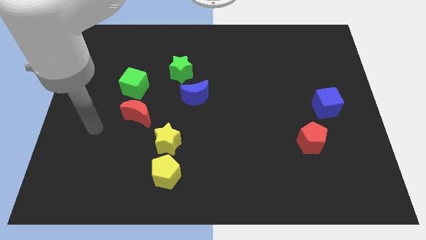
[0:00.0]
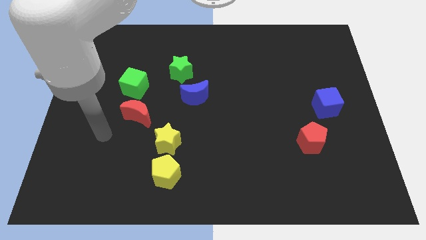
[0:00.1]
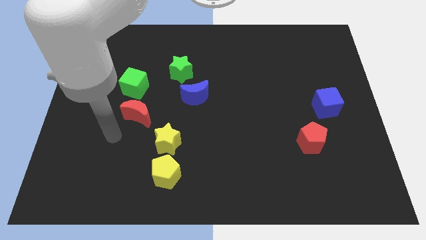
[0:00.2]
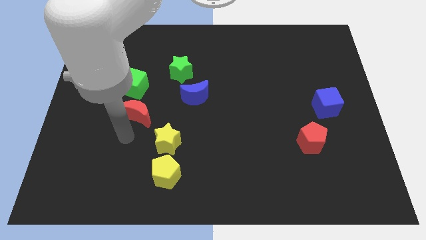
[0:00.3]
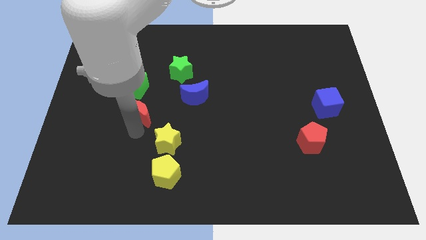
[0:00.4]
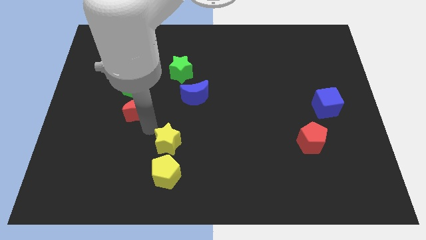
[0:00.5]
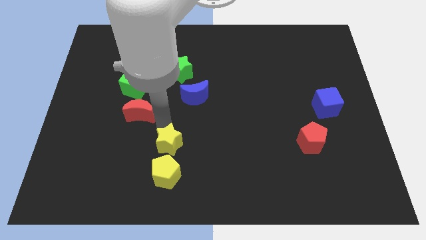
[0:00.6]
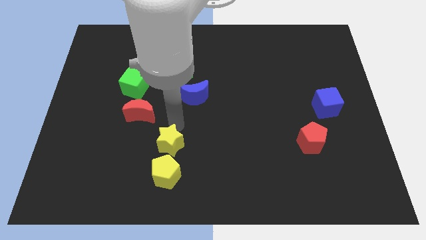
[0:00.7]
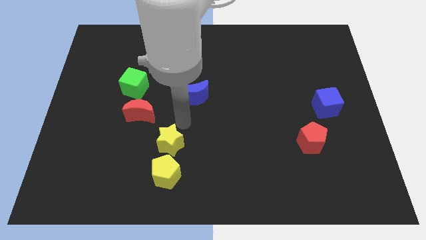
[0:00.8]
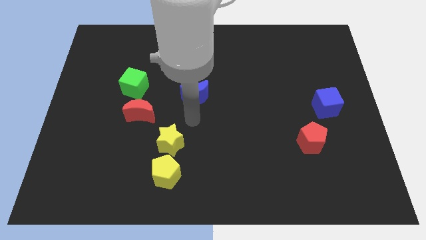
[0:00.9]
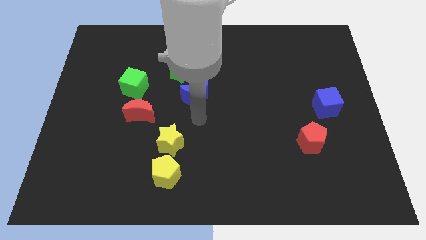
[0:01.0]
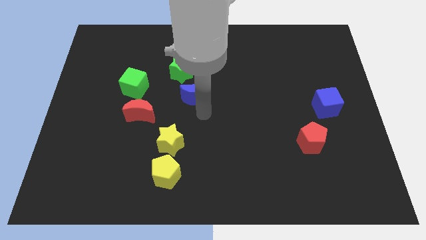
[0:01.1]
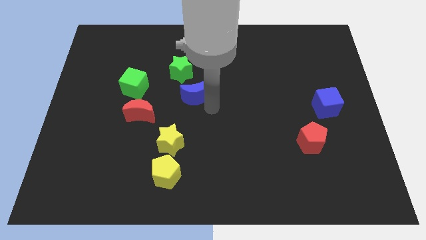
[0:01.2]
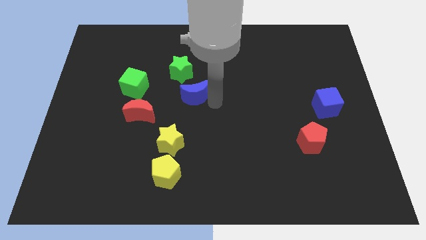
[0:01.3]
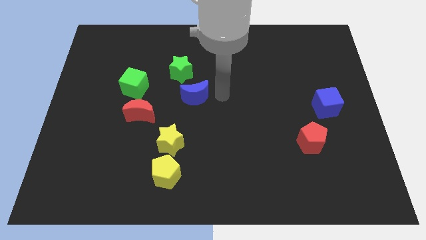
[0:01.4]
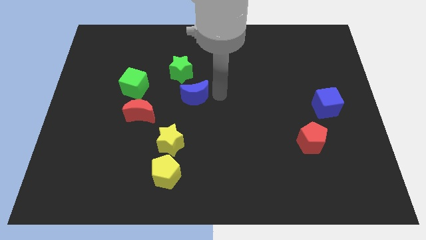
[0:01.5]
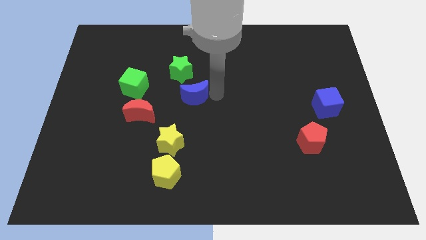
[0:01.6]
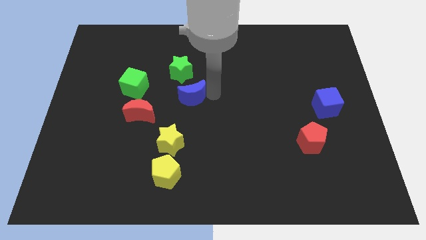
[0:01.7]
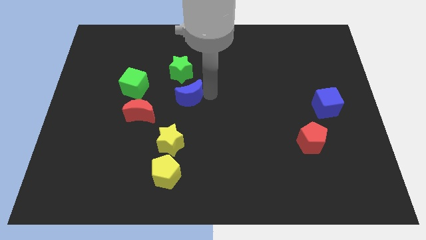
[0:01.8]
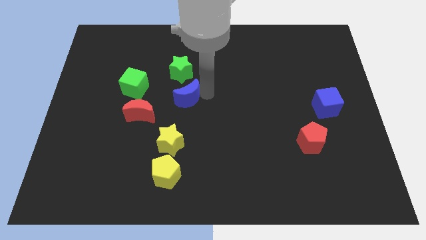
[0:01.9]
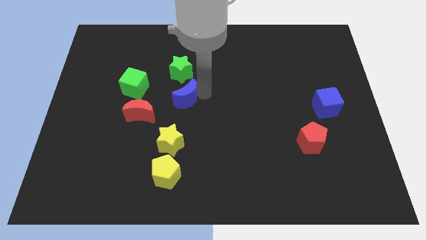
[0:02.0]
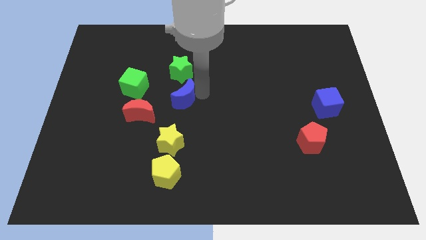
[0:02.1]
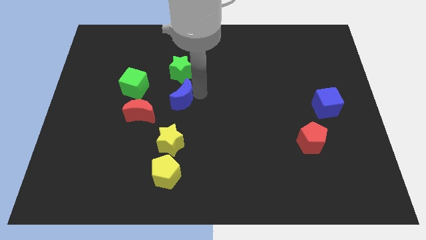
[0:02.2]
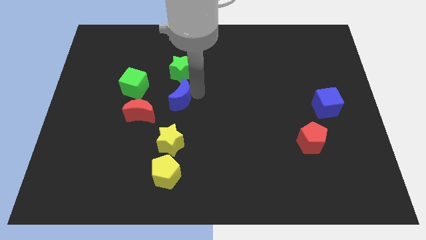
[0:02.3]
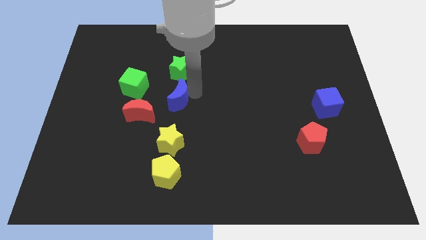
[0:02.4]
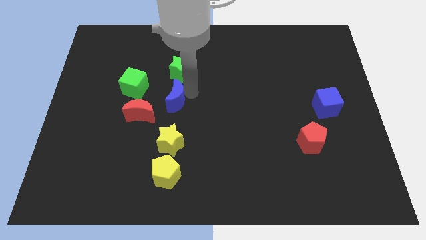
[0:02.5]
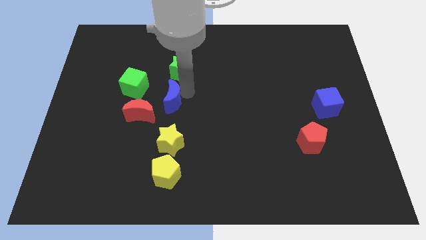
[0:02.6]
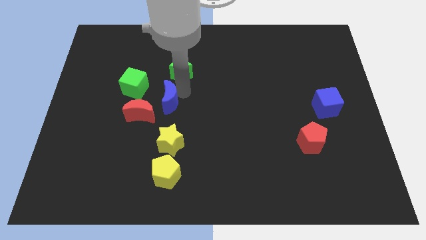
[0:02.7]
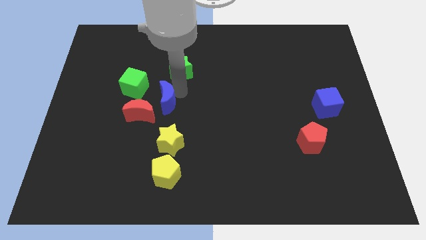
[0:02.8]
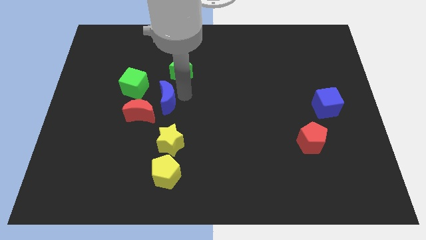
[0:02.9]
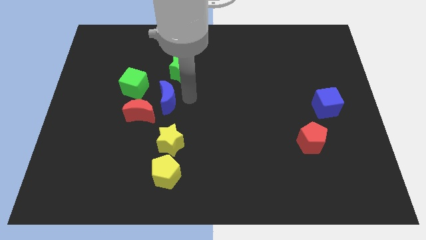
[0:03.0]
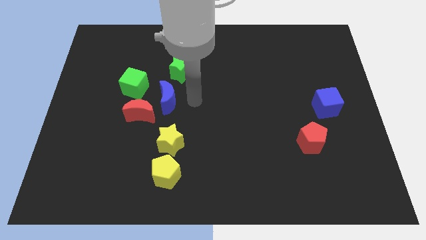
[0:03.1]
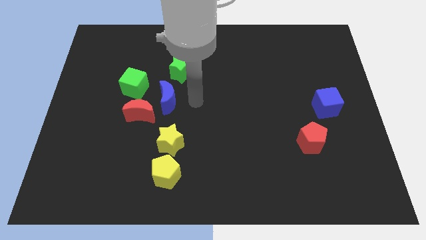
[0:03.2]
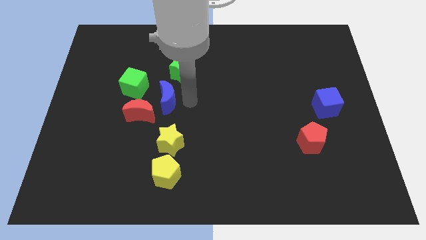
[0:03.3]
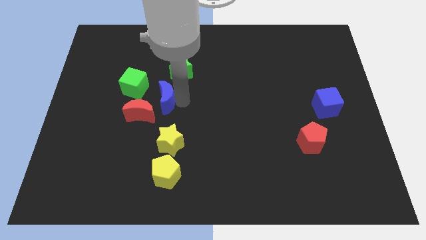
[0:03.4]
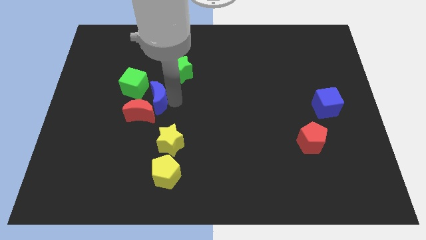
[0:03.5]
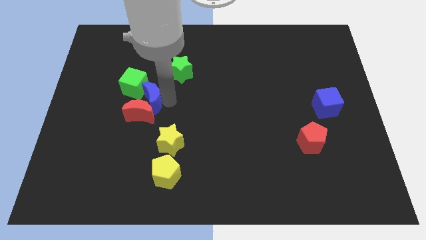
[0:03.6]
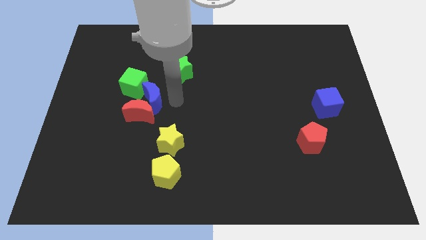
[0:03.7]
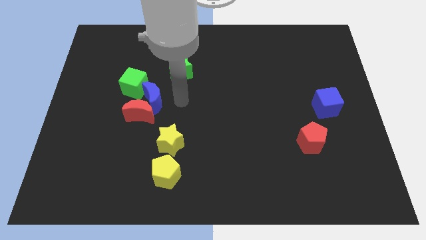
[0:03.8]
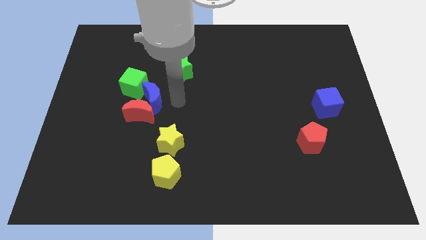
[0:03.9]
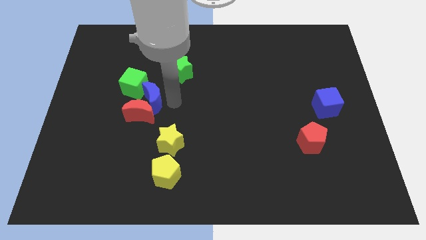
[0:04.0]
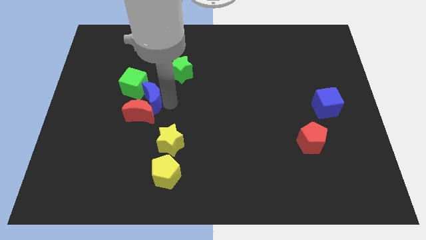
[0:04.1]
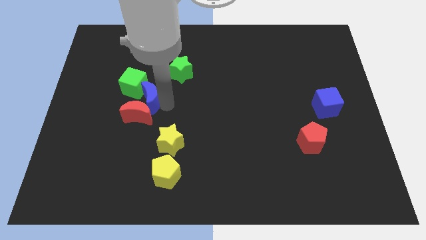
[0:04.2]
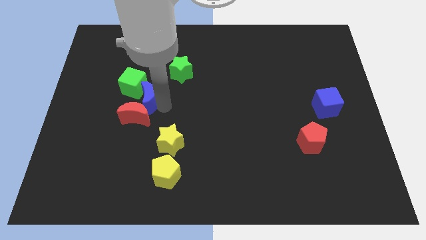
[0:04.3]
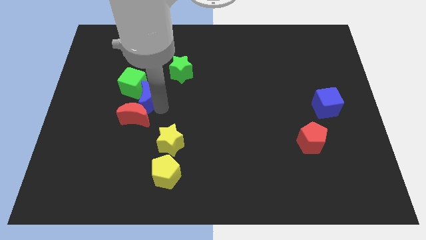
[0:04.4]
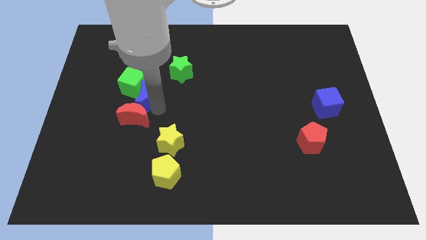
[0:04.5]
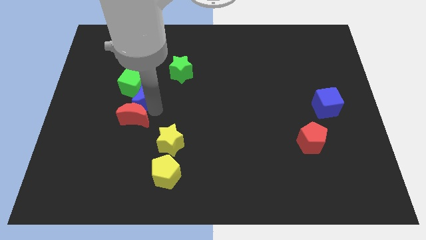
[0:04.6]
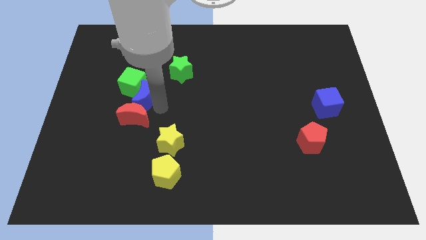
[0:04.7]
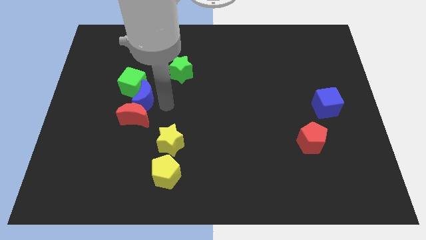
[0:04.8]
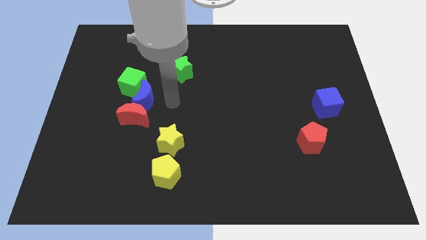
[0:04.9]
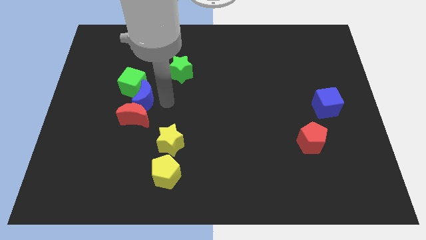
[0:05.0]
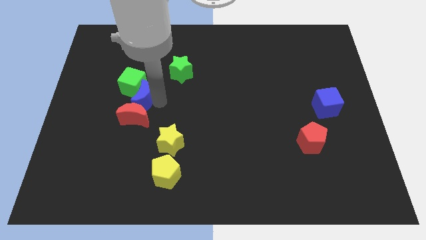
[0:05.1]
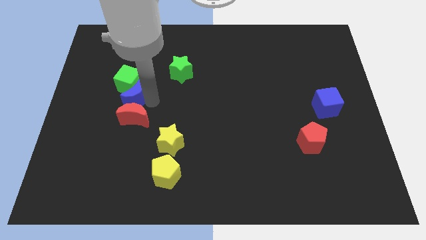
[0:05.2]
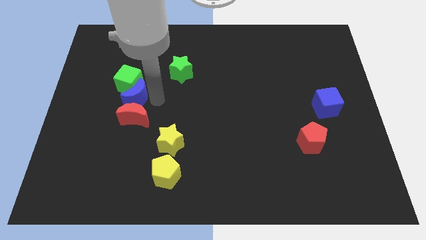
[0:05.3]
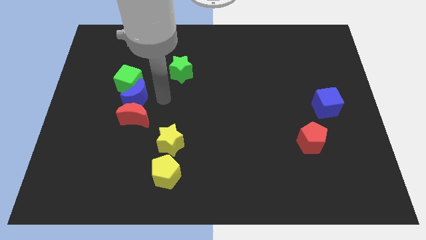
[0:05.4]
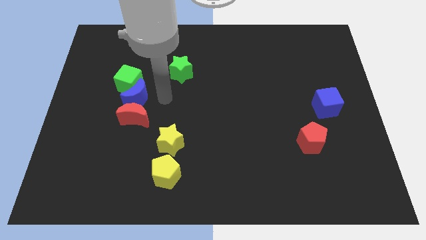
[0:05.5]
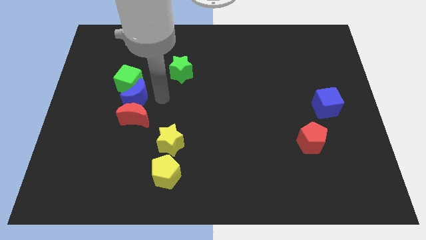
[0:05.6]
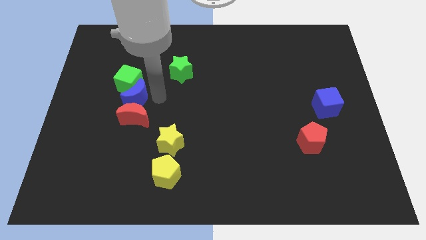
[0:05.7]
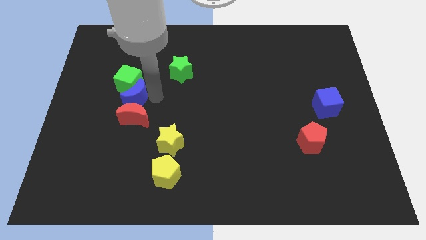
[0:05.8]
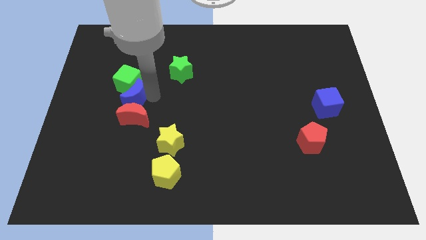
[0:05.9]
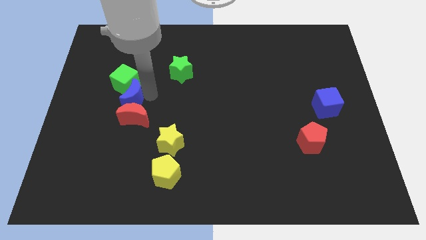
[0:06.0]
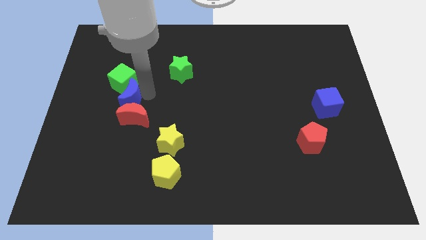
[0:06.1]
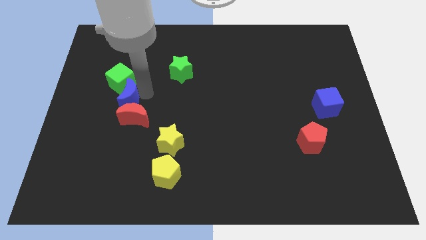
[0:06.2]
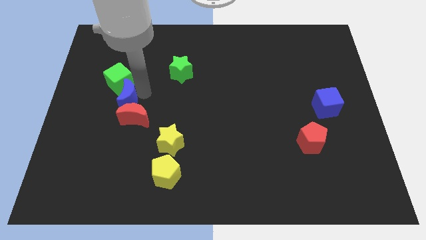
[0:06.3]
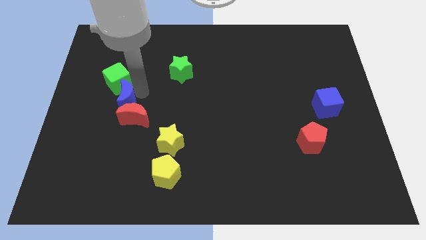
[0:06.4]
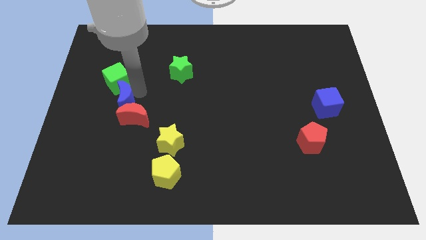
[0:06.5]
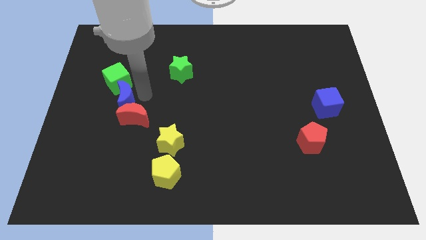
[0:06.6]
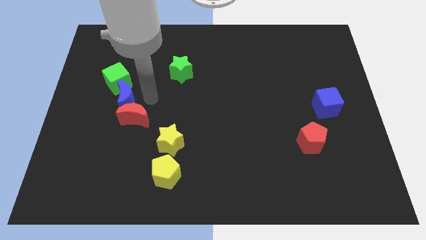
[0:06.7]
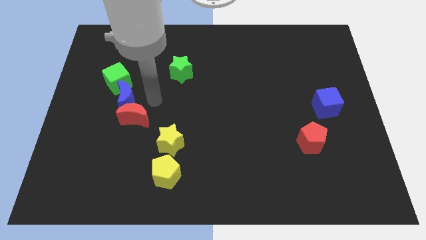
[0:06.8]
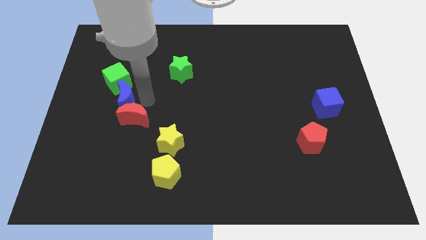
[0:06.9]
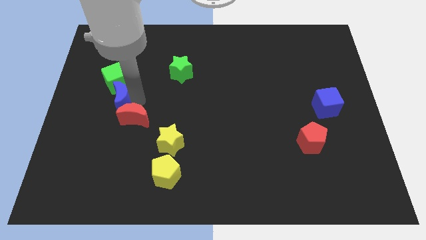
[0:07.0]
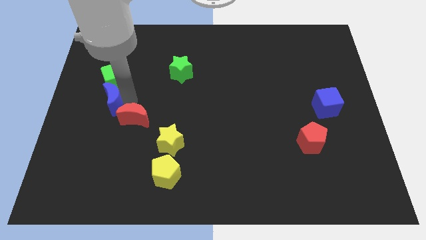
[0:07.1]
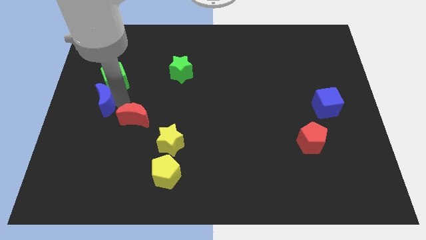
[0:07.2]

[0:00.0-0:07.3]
slide the blue moon to the left side
